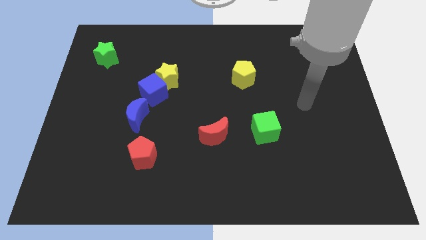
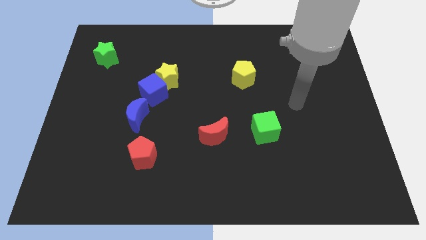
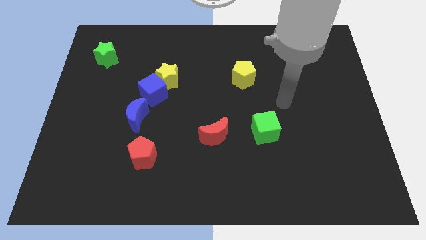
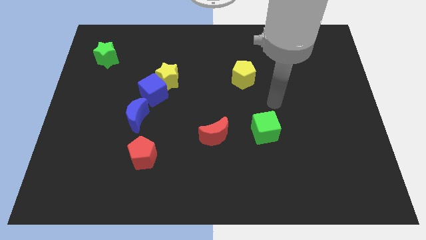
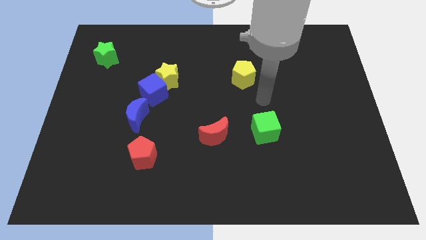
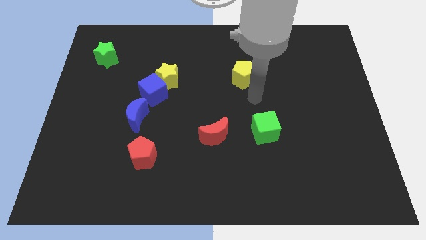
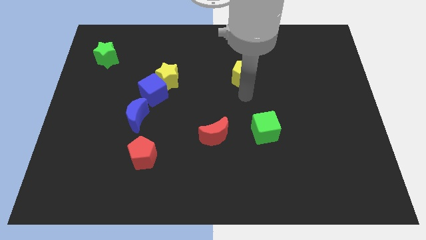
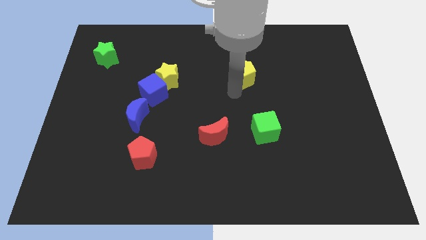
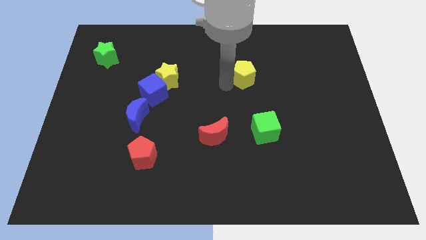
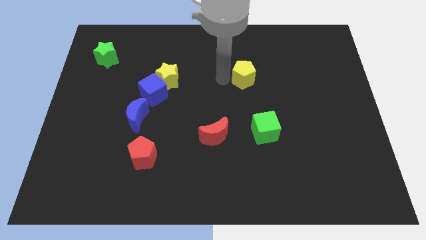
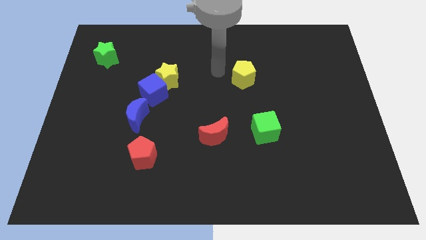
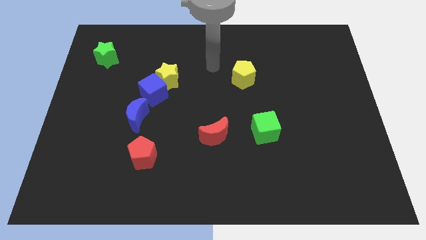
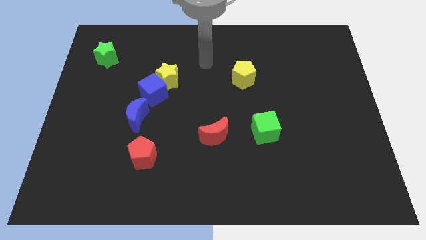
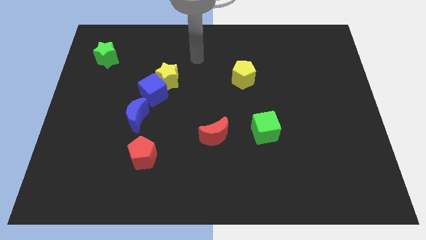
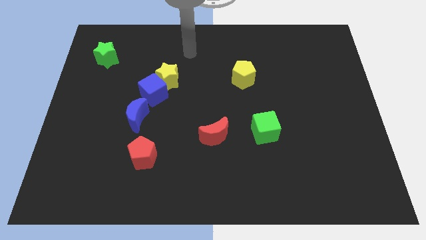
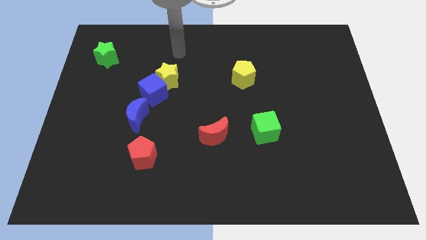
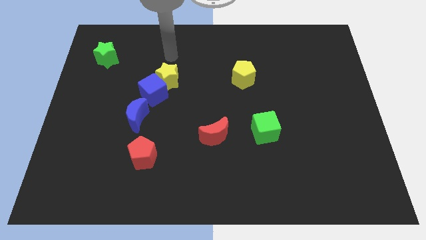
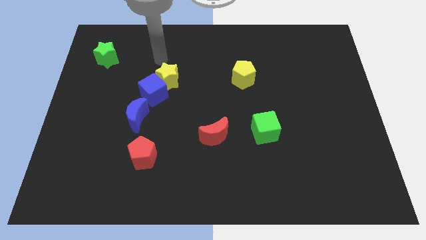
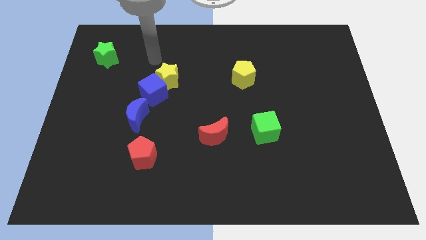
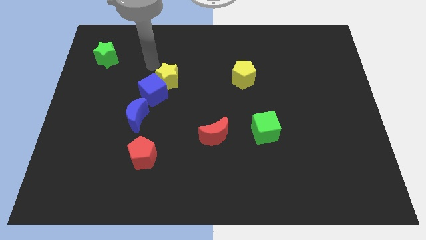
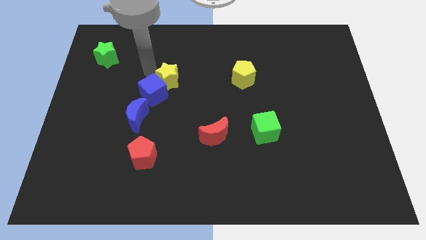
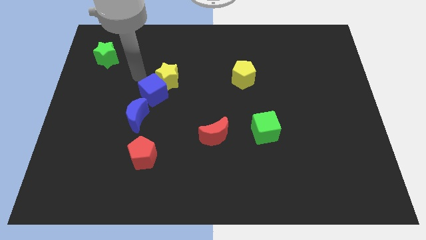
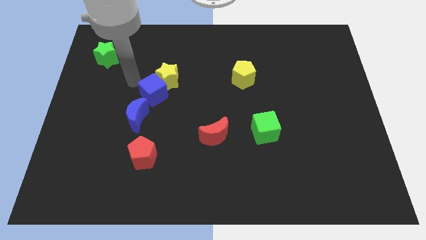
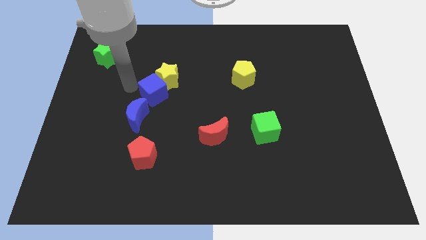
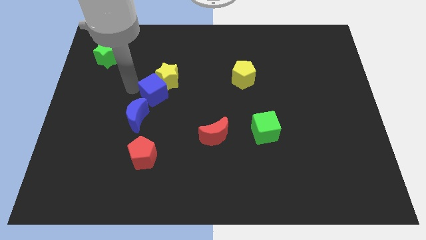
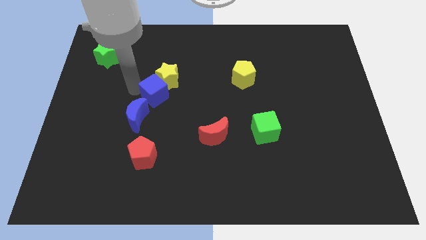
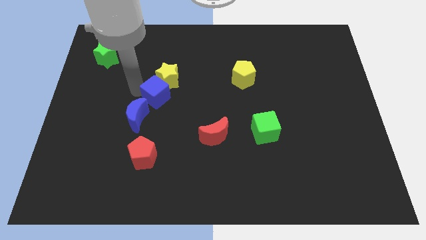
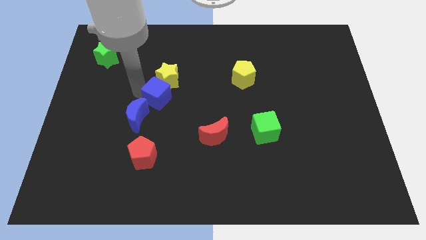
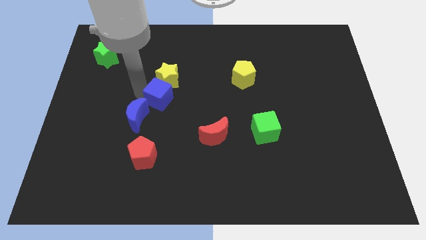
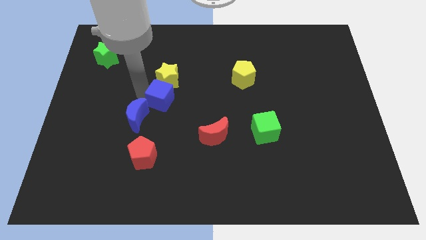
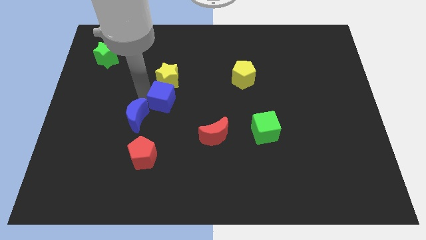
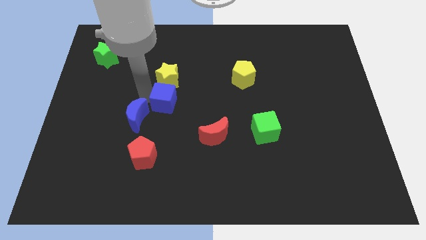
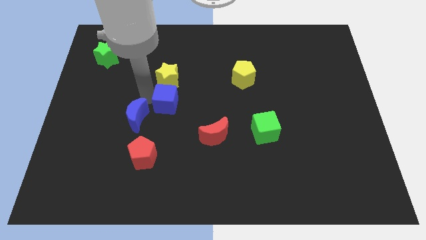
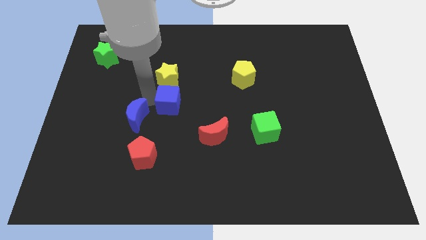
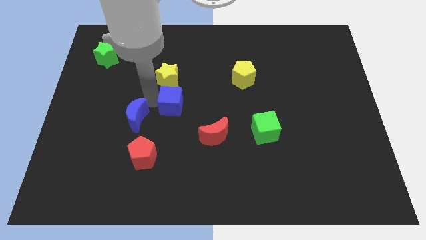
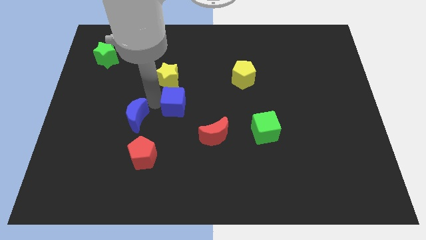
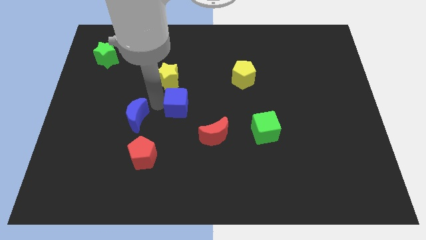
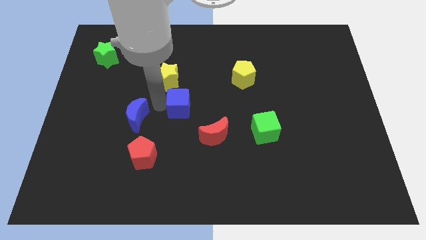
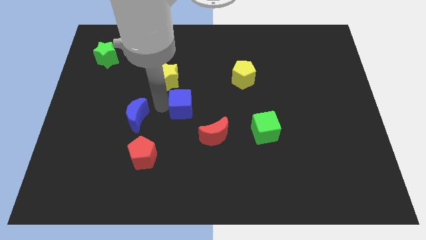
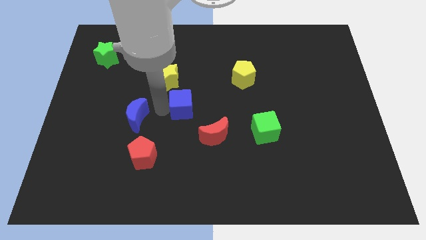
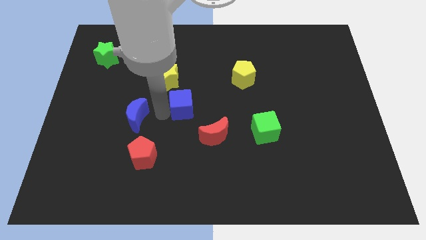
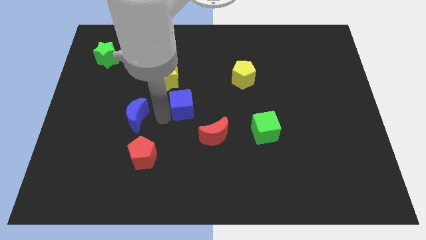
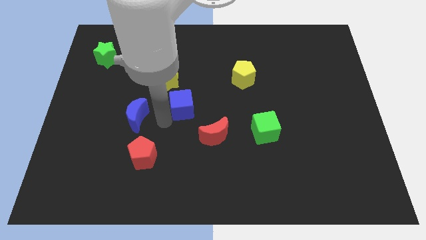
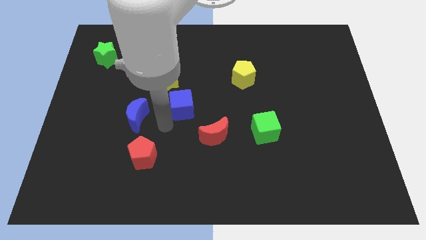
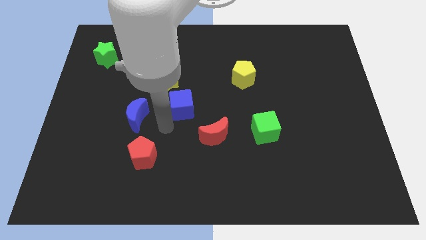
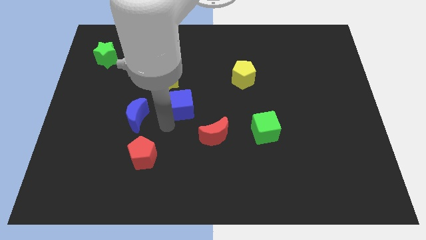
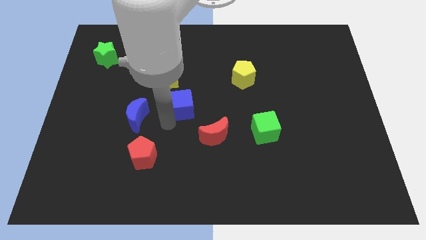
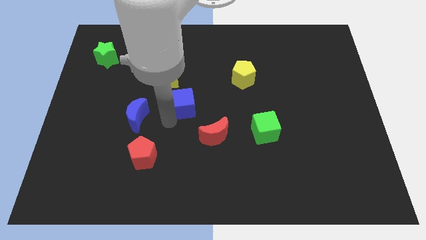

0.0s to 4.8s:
push the blue cube somewhat right

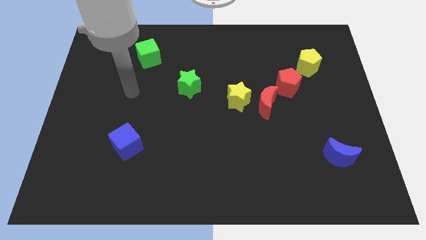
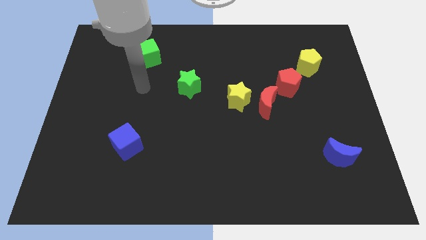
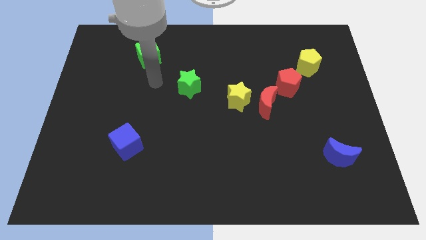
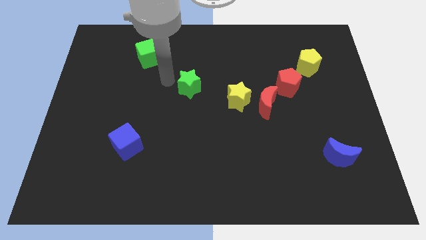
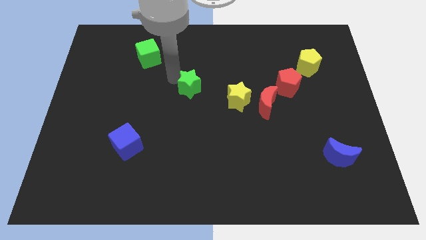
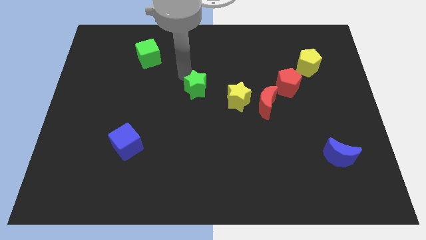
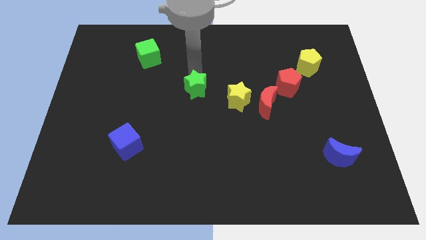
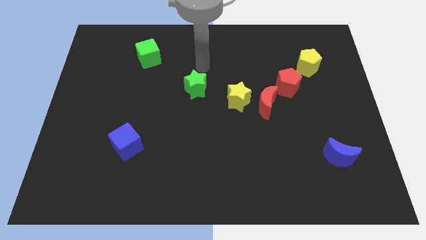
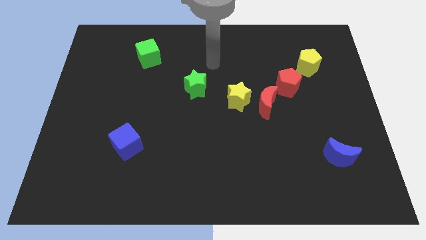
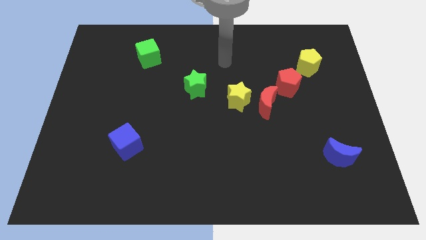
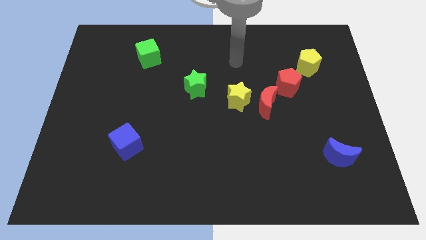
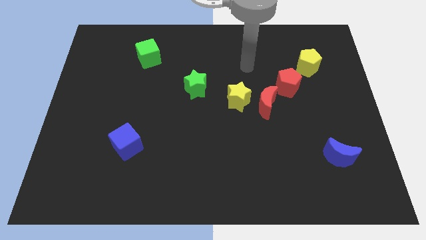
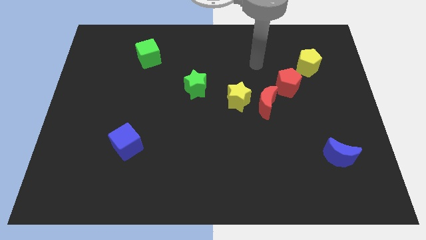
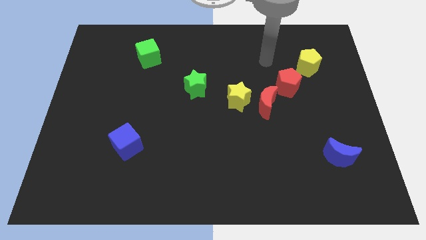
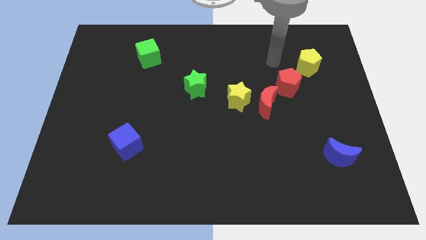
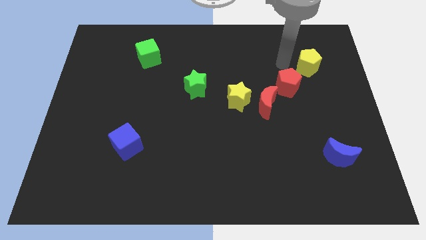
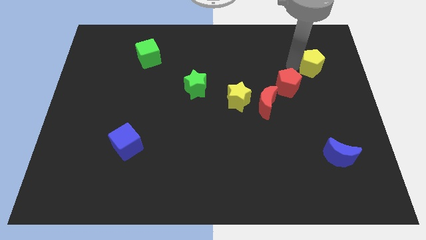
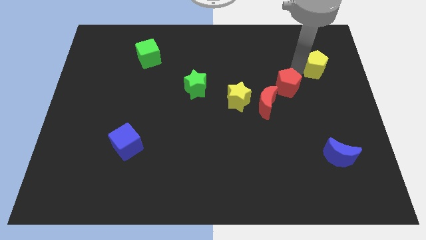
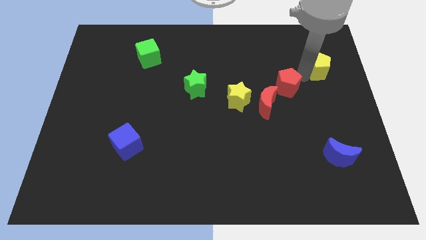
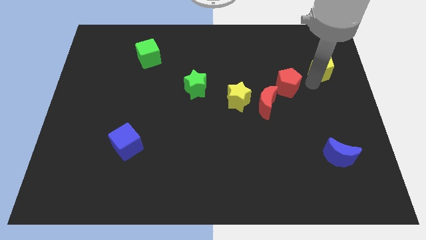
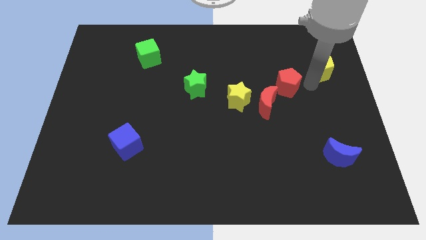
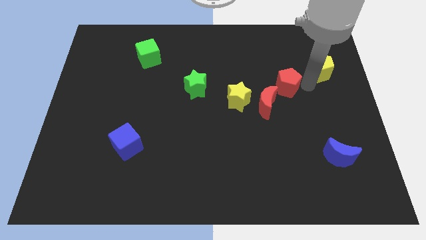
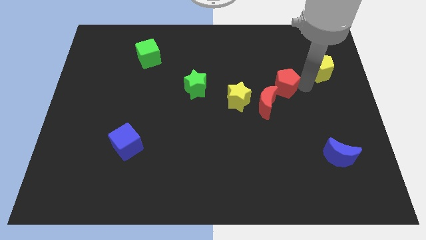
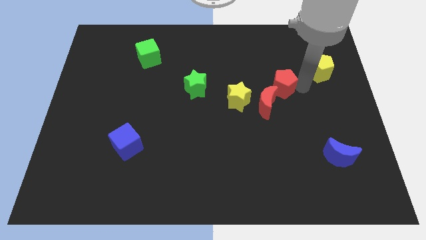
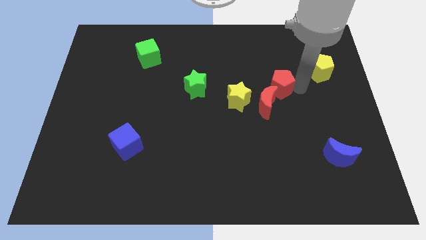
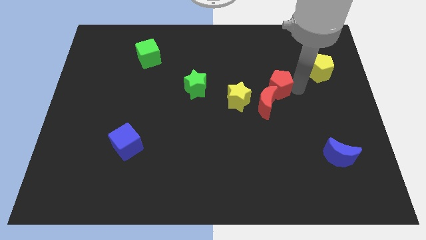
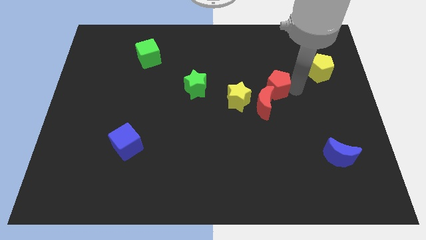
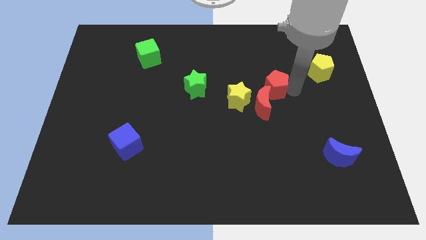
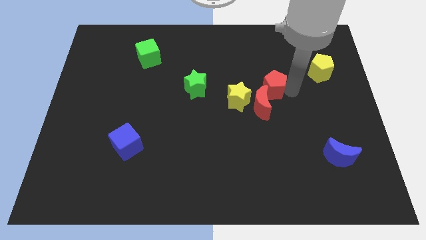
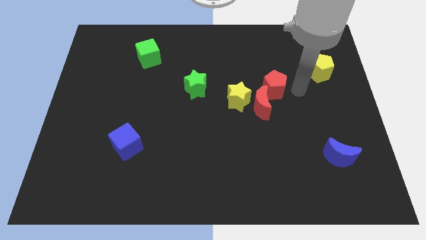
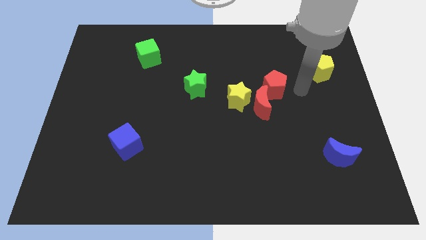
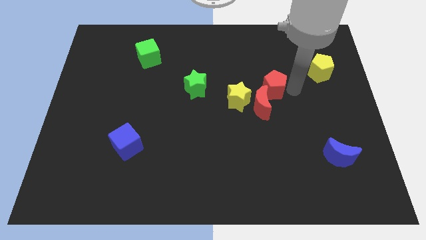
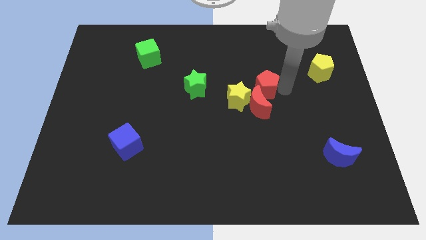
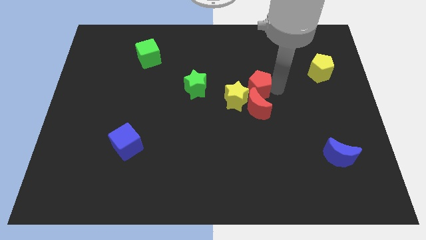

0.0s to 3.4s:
slightly move the red pentagon to the left
